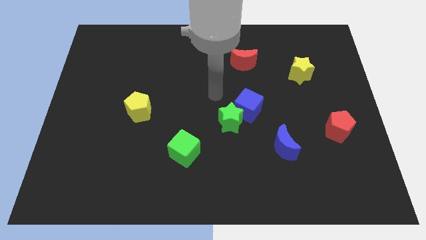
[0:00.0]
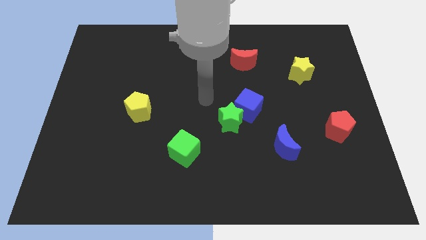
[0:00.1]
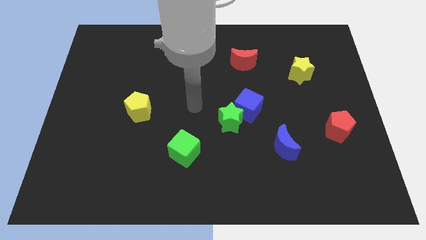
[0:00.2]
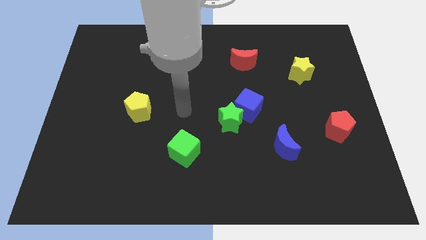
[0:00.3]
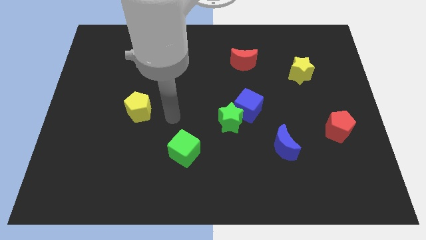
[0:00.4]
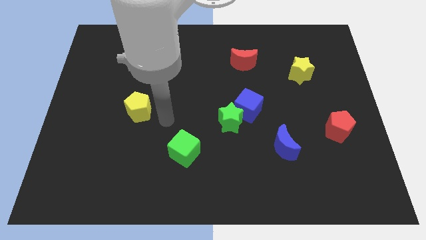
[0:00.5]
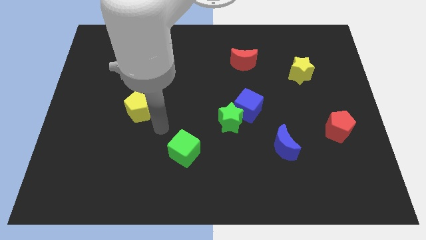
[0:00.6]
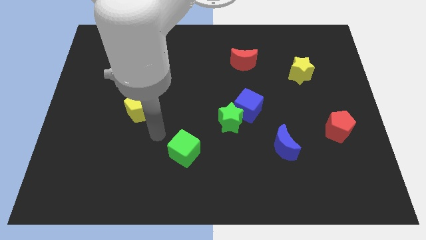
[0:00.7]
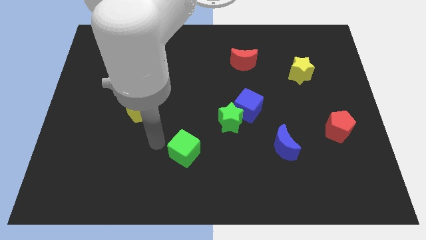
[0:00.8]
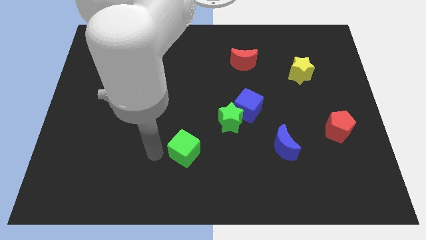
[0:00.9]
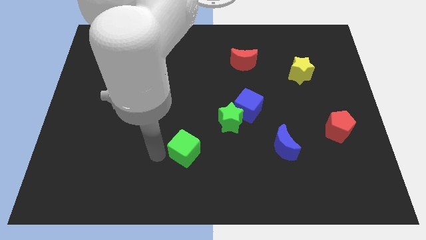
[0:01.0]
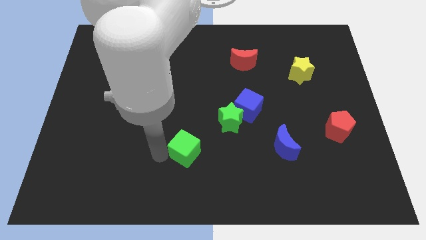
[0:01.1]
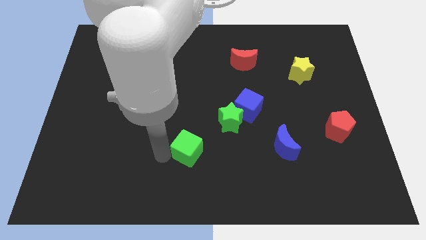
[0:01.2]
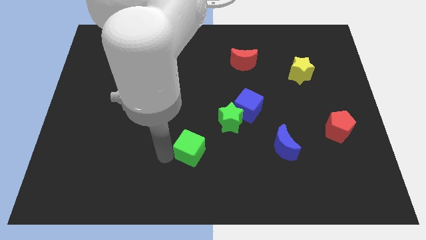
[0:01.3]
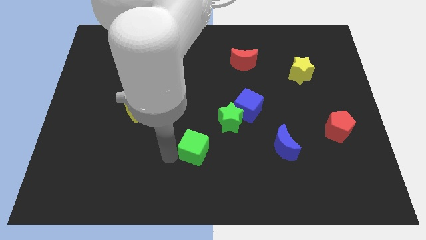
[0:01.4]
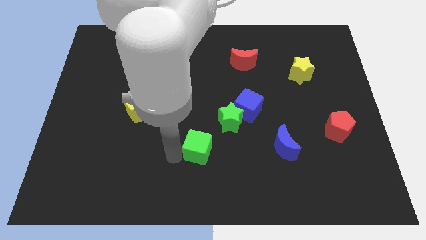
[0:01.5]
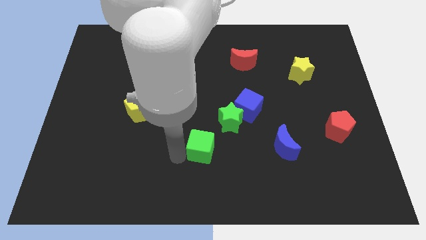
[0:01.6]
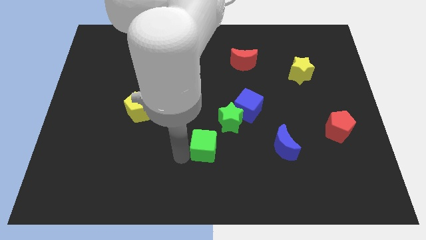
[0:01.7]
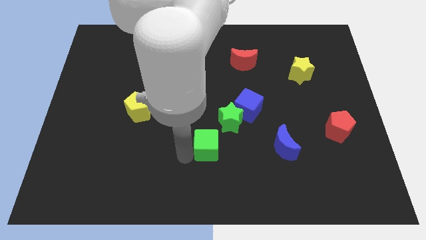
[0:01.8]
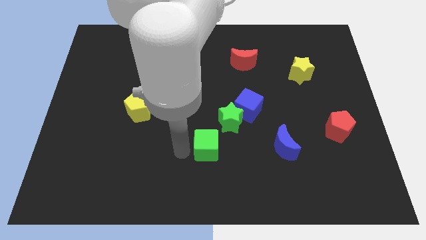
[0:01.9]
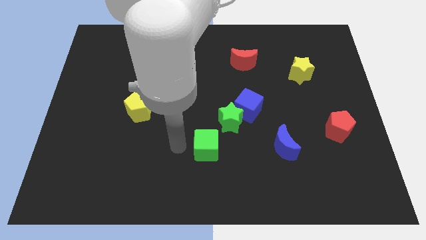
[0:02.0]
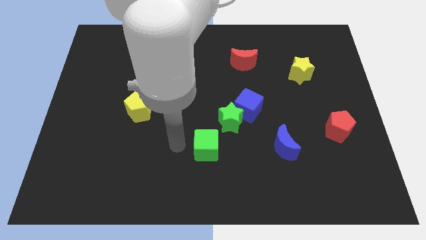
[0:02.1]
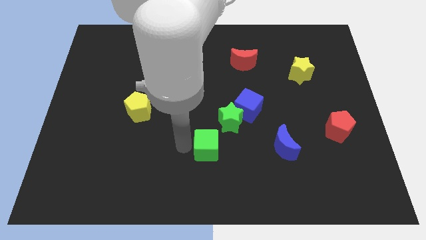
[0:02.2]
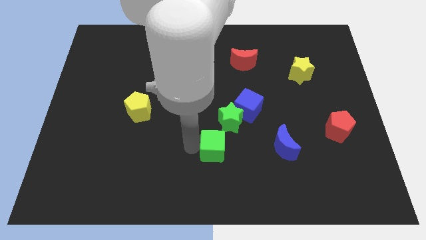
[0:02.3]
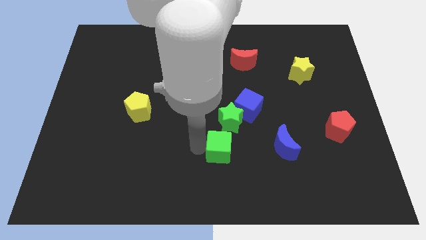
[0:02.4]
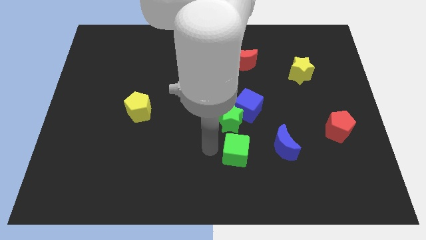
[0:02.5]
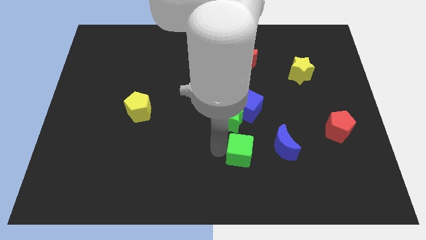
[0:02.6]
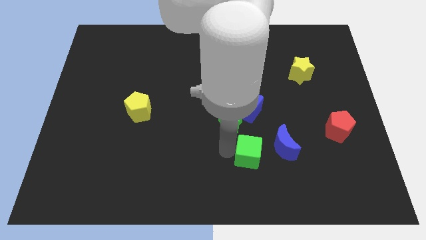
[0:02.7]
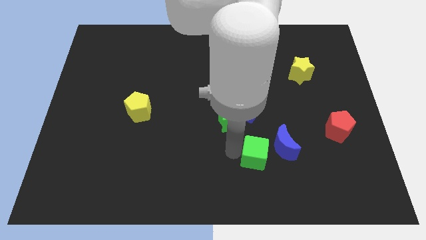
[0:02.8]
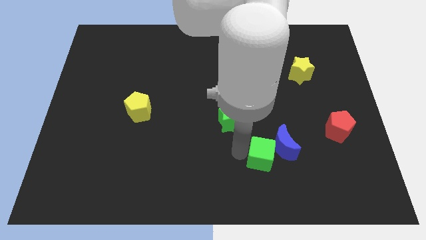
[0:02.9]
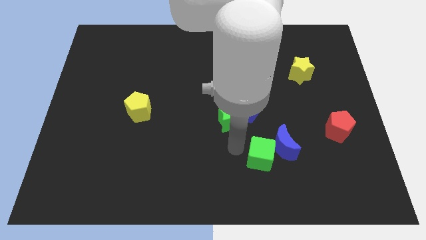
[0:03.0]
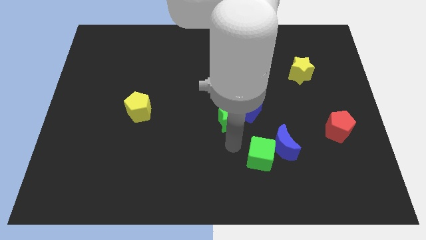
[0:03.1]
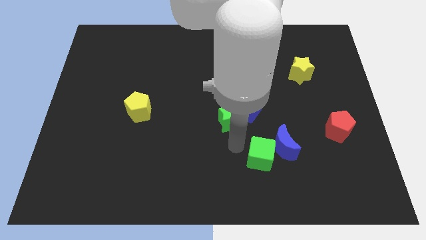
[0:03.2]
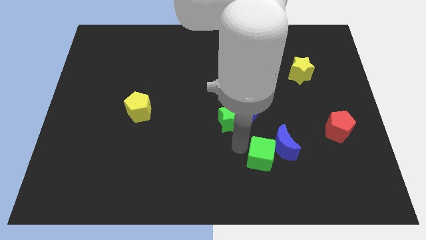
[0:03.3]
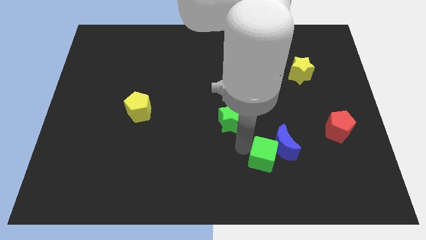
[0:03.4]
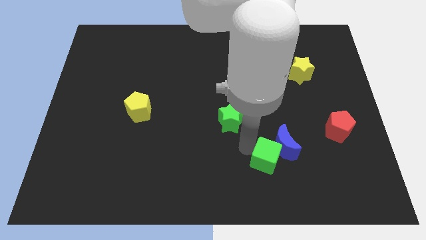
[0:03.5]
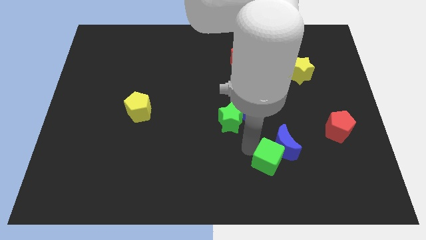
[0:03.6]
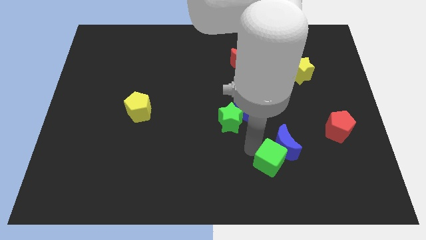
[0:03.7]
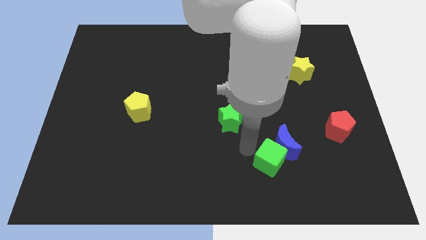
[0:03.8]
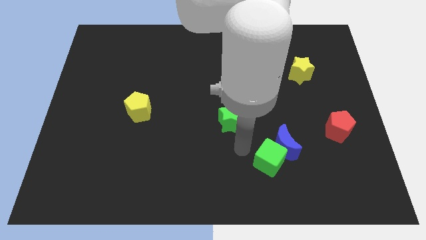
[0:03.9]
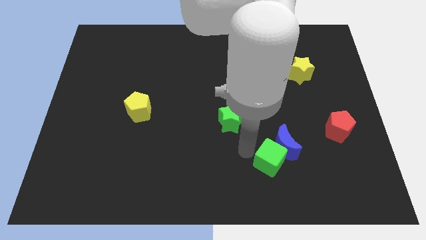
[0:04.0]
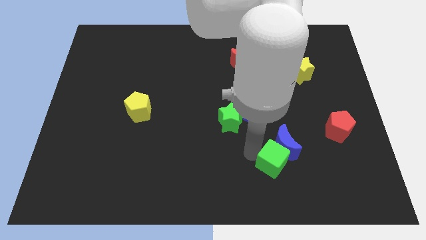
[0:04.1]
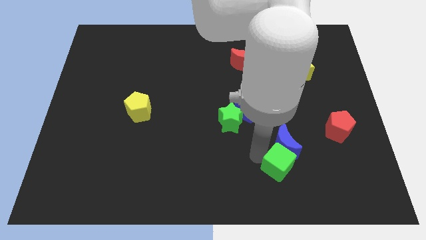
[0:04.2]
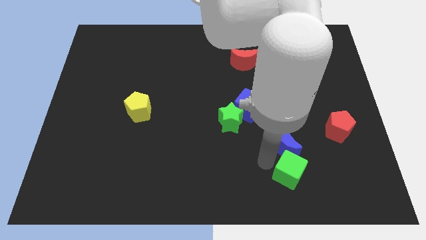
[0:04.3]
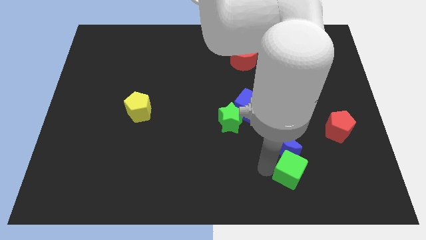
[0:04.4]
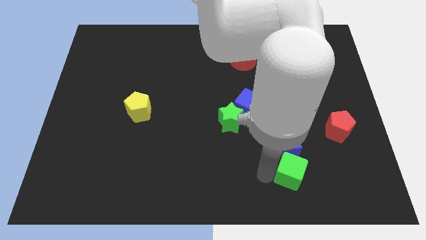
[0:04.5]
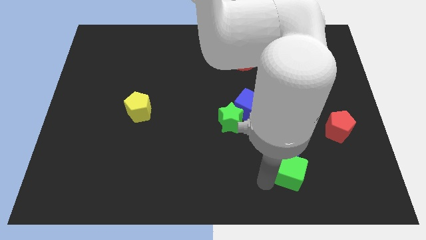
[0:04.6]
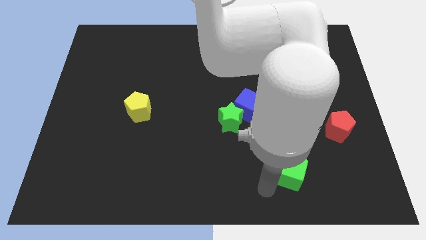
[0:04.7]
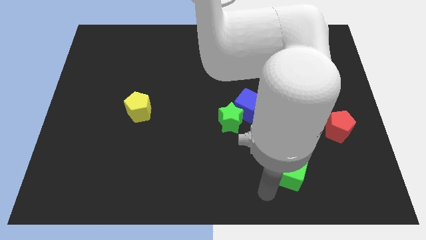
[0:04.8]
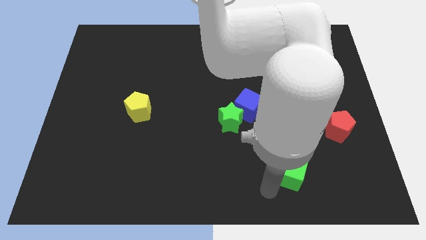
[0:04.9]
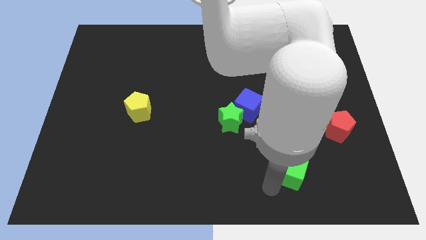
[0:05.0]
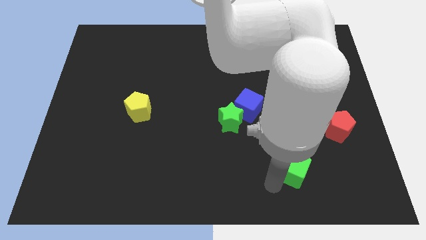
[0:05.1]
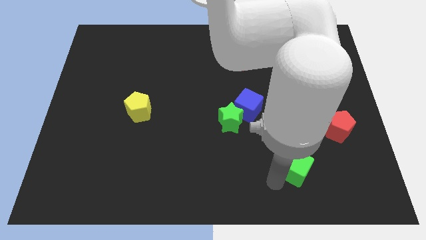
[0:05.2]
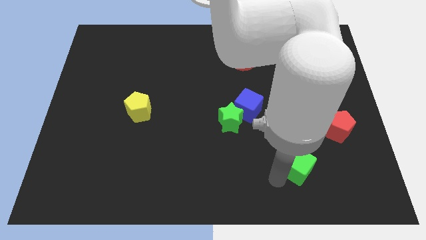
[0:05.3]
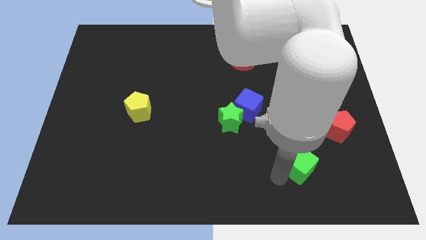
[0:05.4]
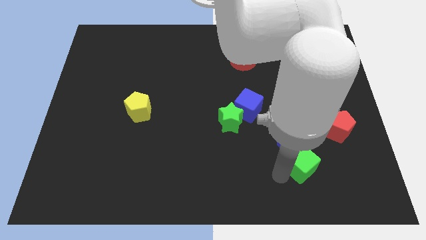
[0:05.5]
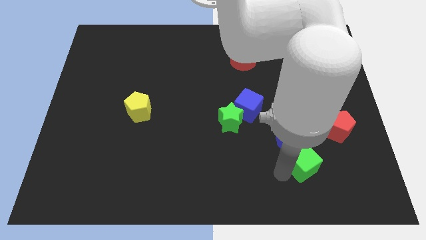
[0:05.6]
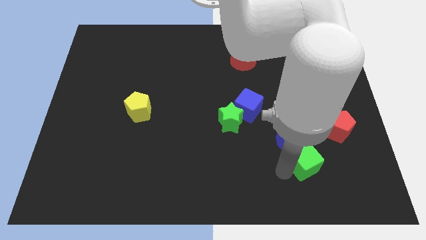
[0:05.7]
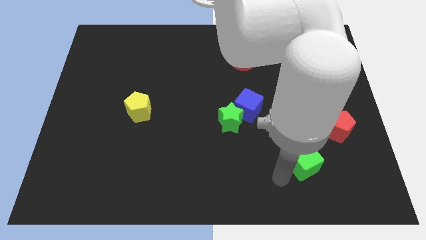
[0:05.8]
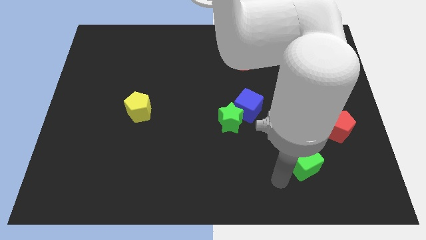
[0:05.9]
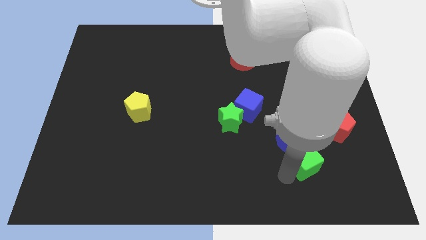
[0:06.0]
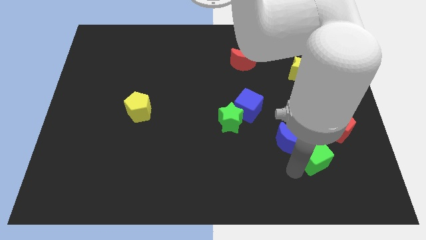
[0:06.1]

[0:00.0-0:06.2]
slide the green cube to the right side of the blue moon
